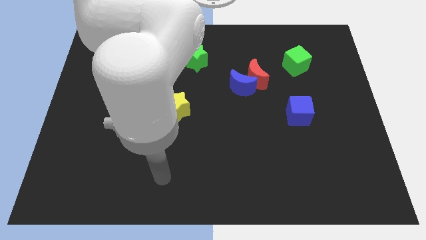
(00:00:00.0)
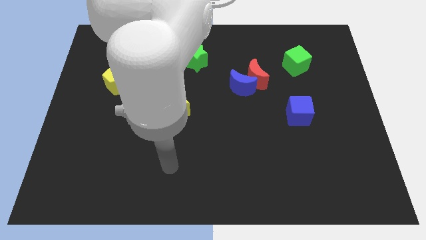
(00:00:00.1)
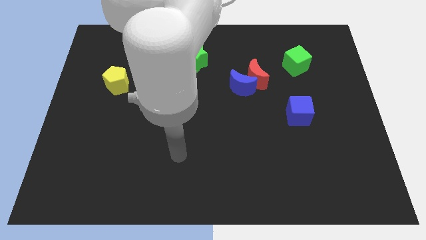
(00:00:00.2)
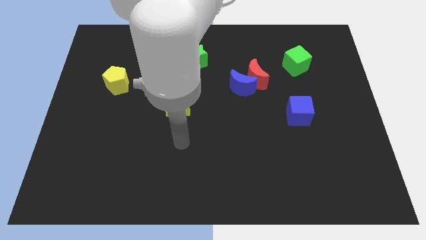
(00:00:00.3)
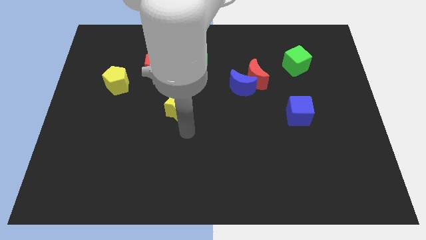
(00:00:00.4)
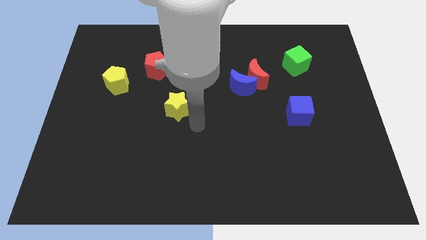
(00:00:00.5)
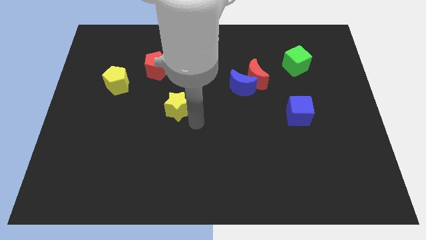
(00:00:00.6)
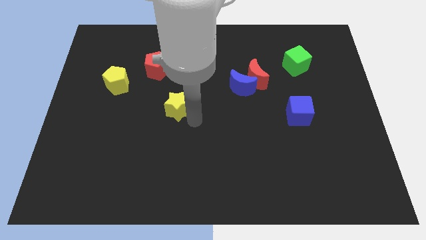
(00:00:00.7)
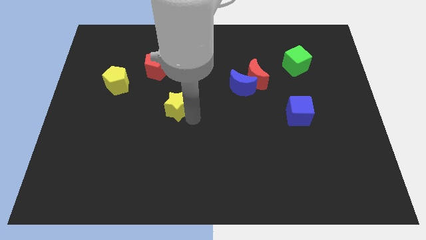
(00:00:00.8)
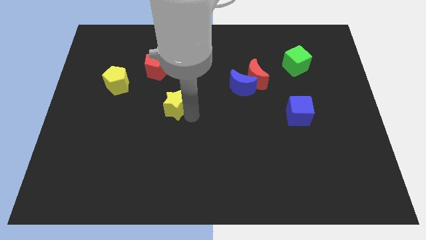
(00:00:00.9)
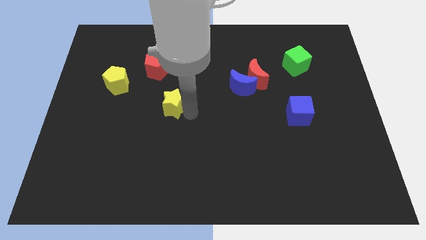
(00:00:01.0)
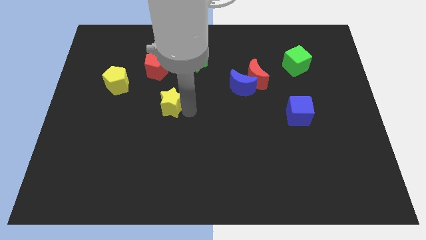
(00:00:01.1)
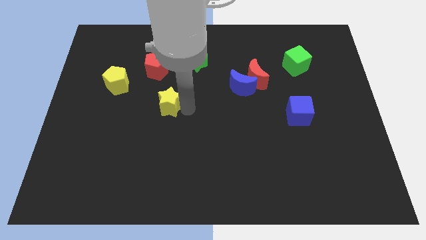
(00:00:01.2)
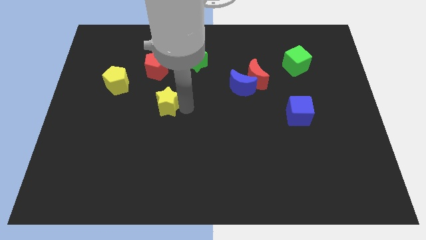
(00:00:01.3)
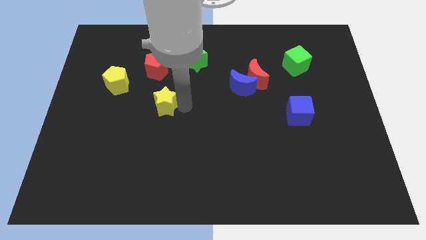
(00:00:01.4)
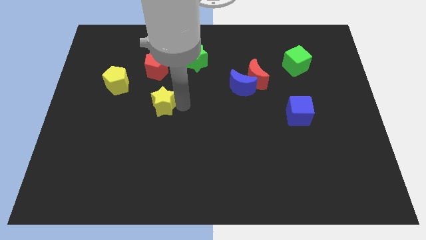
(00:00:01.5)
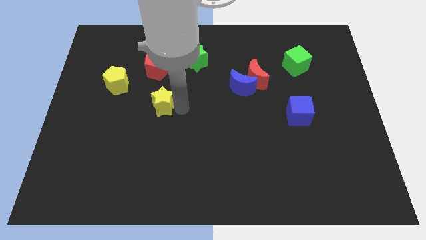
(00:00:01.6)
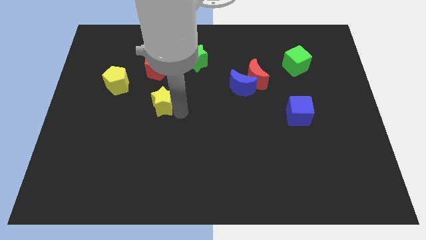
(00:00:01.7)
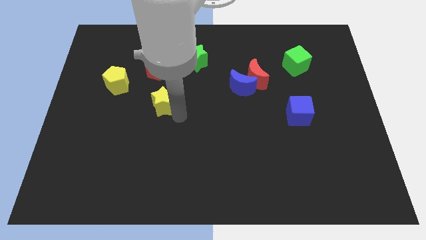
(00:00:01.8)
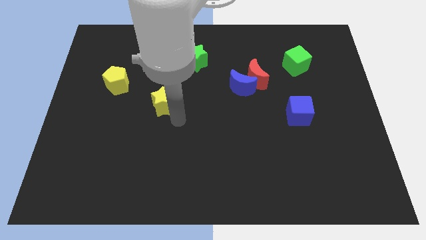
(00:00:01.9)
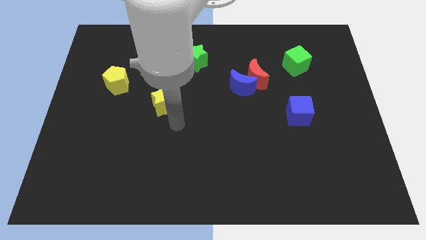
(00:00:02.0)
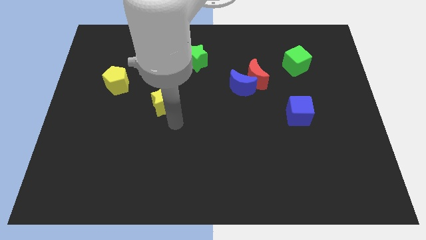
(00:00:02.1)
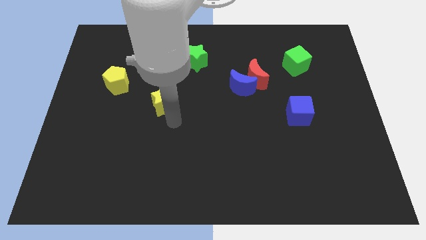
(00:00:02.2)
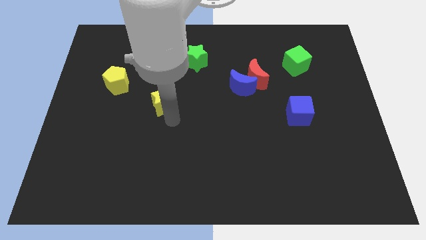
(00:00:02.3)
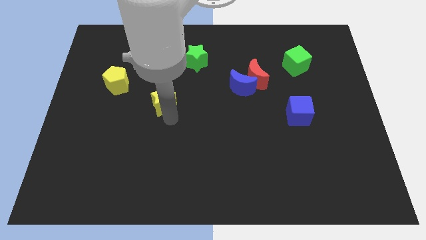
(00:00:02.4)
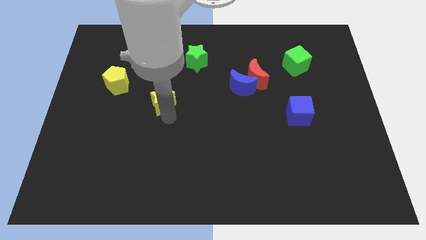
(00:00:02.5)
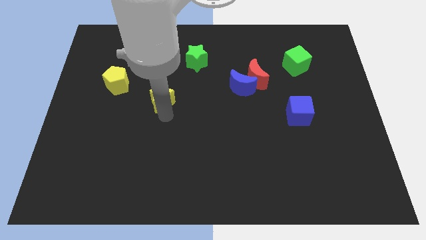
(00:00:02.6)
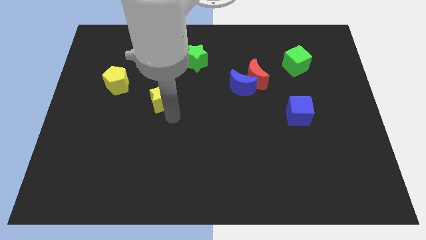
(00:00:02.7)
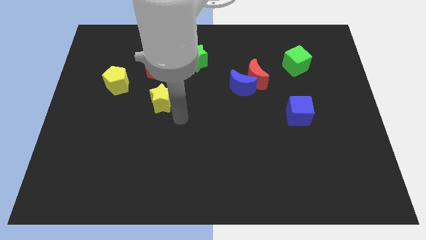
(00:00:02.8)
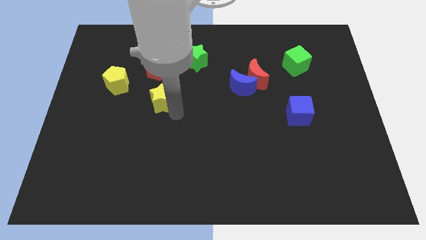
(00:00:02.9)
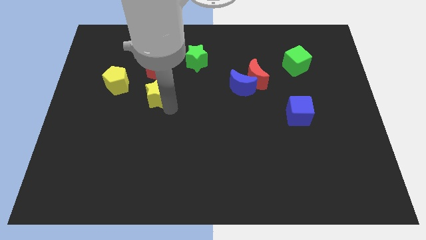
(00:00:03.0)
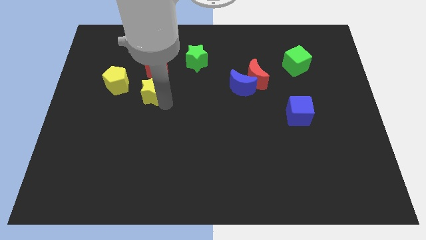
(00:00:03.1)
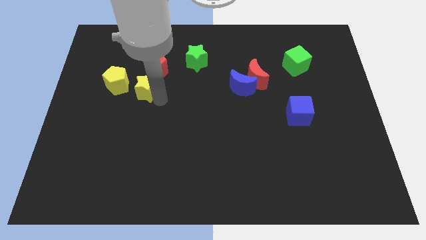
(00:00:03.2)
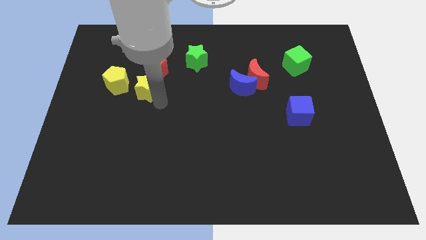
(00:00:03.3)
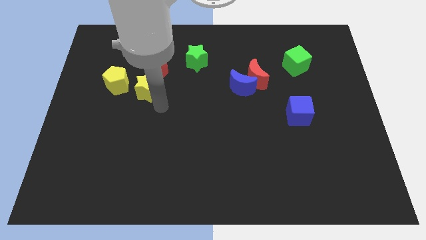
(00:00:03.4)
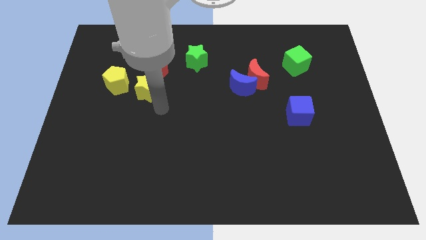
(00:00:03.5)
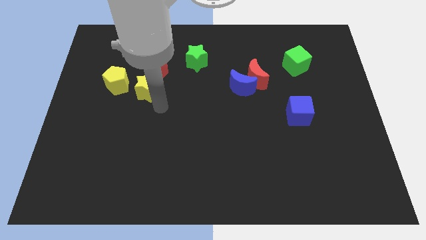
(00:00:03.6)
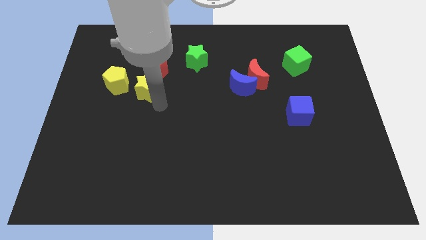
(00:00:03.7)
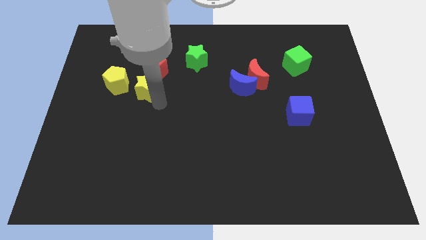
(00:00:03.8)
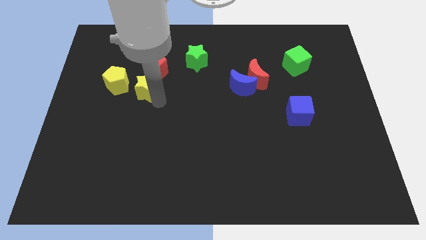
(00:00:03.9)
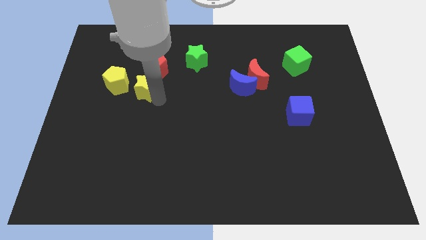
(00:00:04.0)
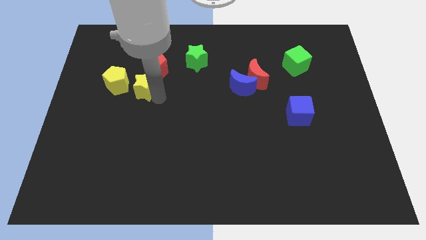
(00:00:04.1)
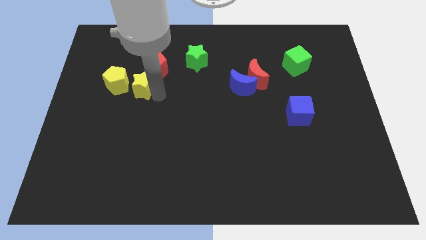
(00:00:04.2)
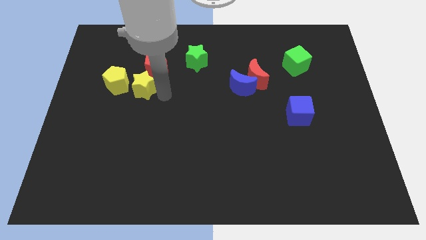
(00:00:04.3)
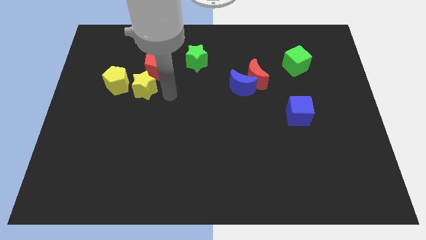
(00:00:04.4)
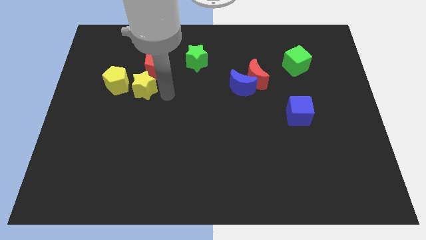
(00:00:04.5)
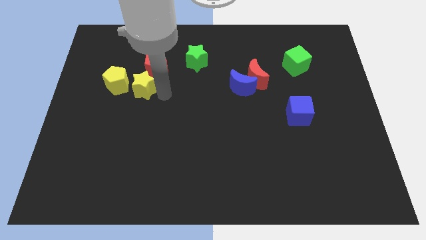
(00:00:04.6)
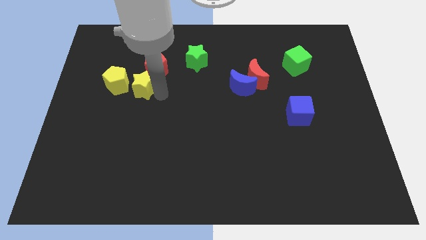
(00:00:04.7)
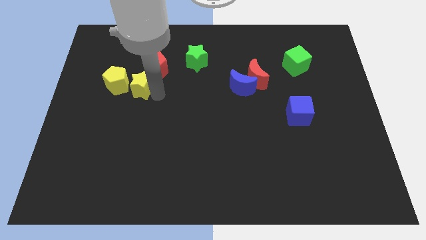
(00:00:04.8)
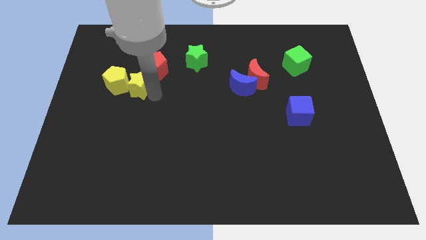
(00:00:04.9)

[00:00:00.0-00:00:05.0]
slide the yellow star to the yellow pentagon

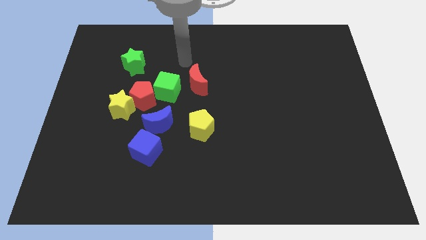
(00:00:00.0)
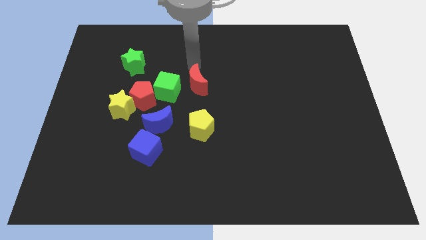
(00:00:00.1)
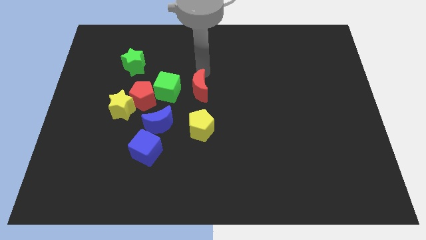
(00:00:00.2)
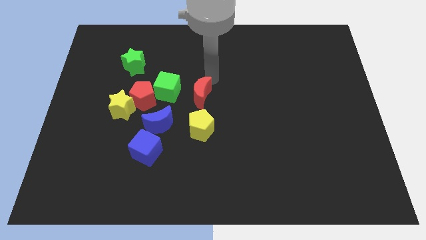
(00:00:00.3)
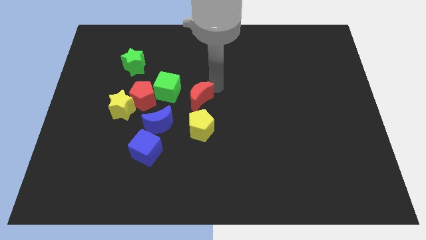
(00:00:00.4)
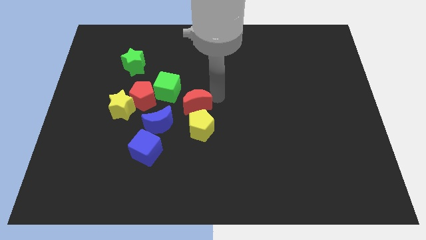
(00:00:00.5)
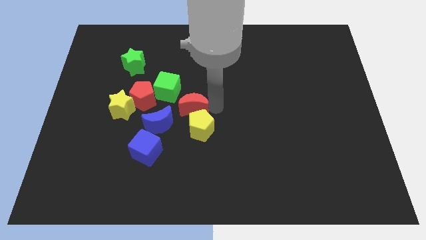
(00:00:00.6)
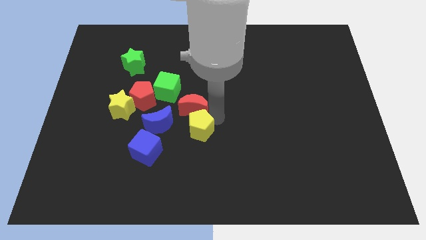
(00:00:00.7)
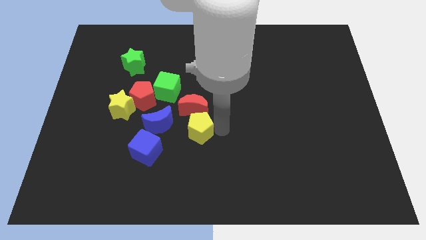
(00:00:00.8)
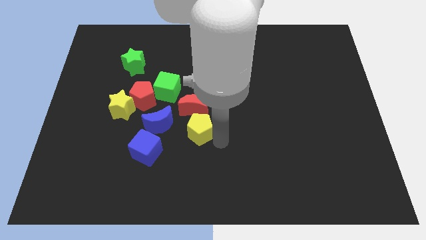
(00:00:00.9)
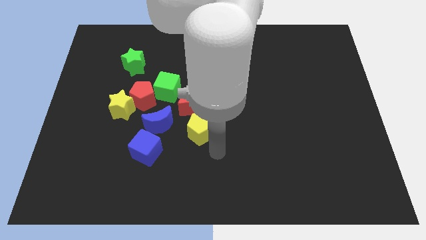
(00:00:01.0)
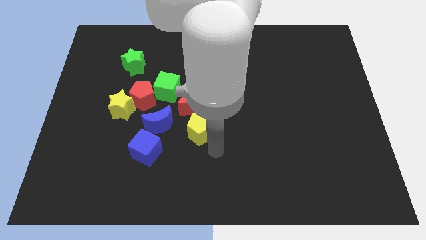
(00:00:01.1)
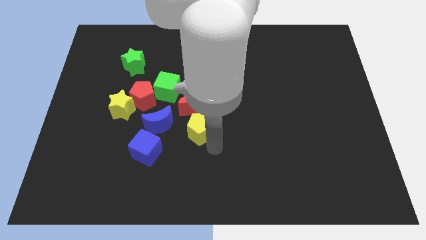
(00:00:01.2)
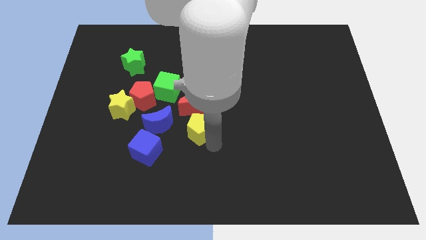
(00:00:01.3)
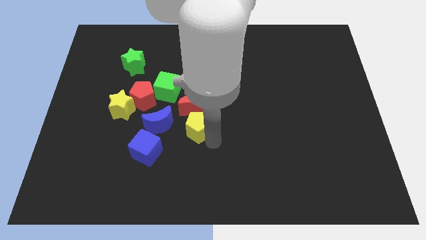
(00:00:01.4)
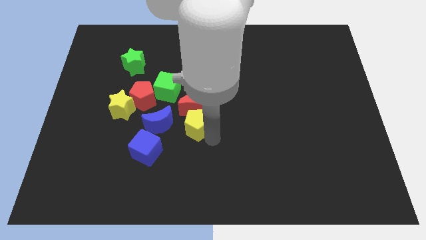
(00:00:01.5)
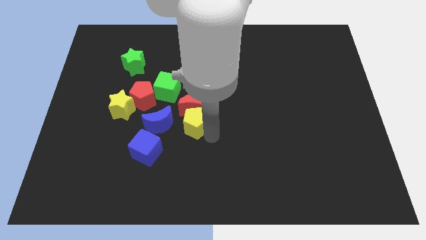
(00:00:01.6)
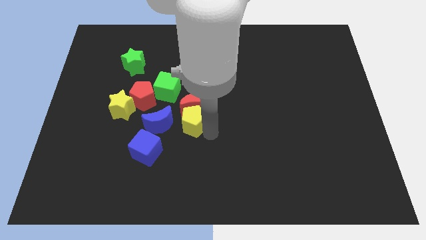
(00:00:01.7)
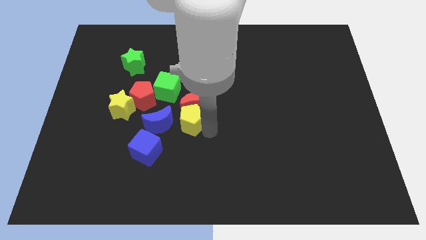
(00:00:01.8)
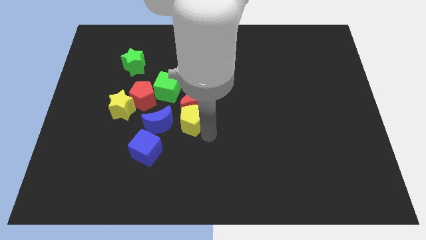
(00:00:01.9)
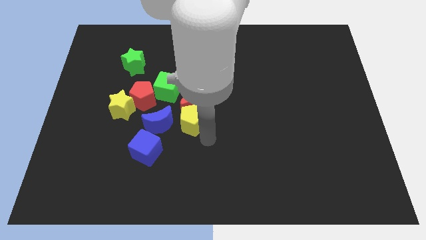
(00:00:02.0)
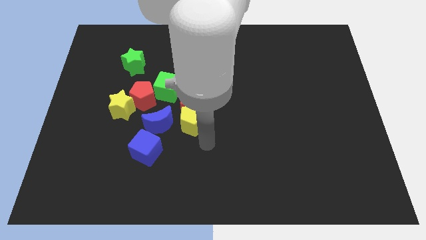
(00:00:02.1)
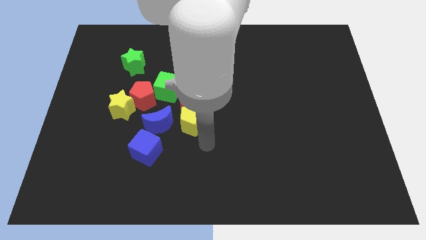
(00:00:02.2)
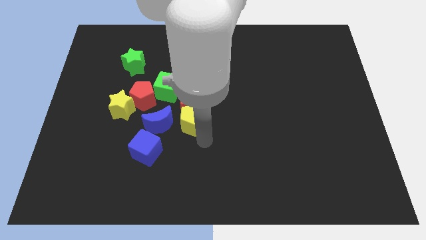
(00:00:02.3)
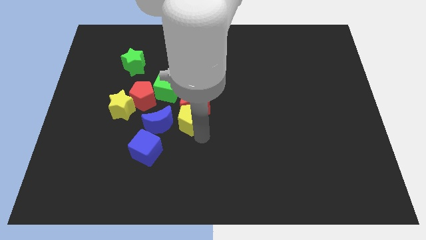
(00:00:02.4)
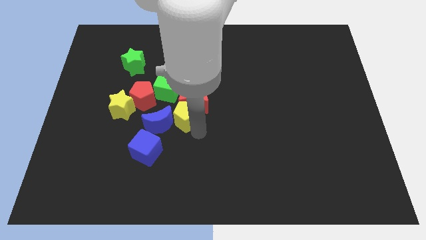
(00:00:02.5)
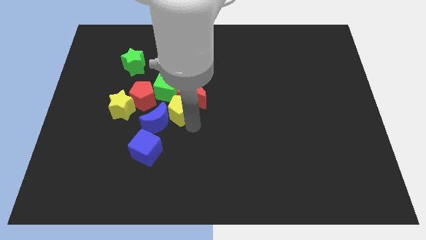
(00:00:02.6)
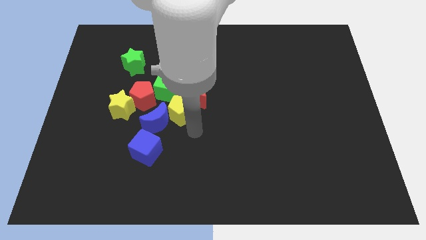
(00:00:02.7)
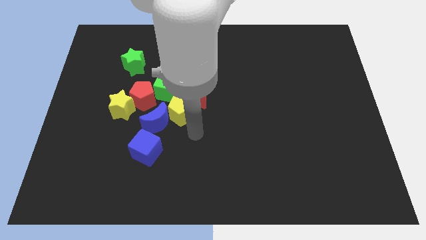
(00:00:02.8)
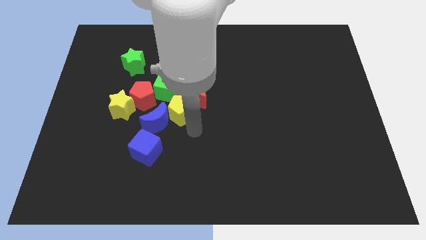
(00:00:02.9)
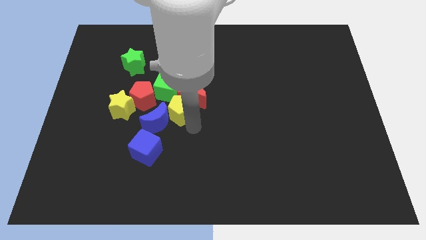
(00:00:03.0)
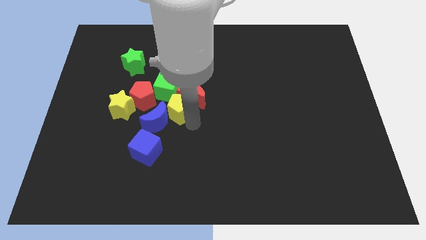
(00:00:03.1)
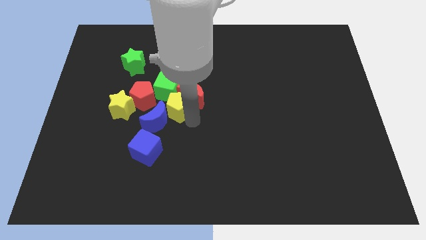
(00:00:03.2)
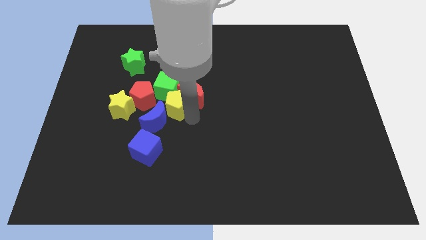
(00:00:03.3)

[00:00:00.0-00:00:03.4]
push the yellow pentagon close to the green cube
